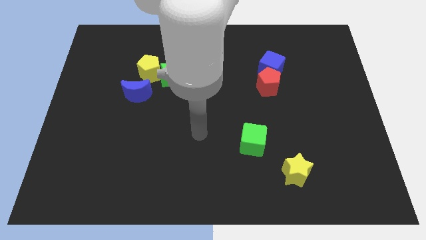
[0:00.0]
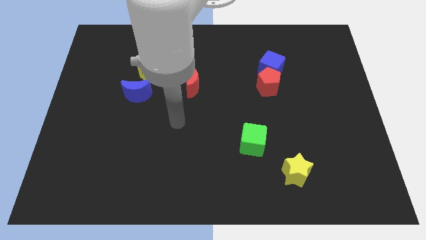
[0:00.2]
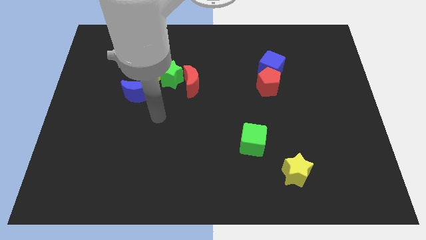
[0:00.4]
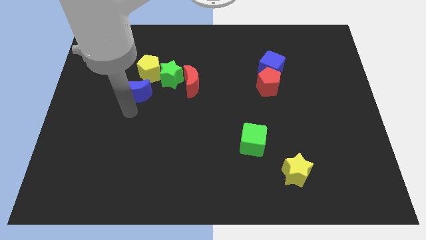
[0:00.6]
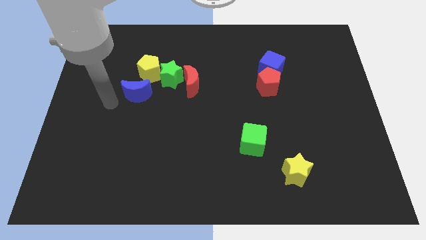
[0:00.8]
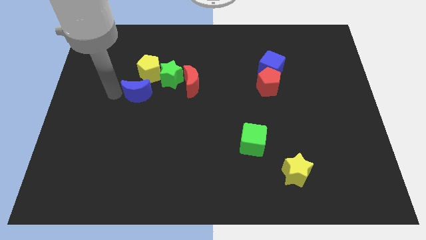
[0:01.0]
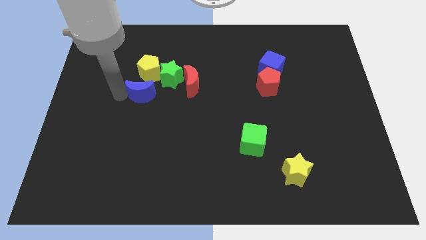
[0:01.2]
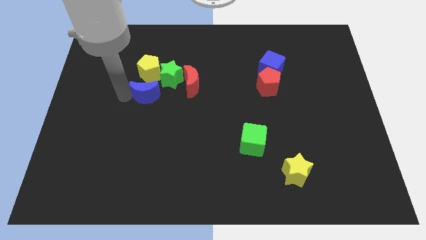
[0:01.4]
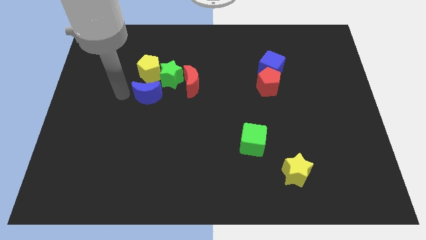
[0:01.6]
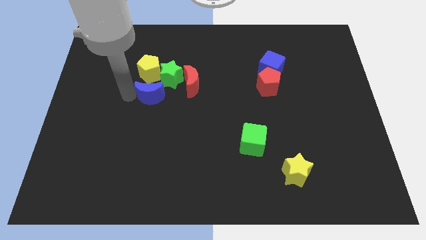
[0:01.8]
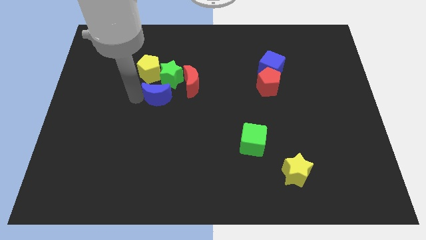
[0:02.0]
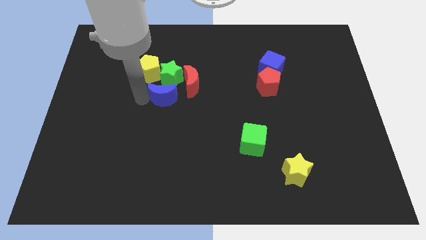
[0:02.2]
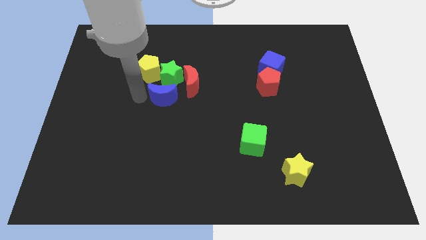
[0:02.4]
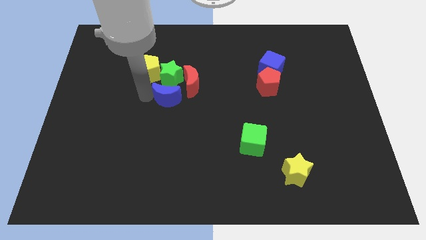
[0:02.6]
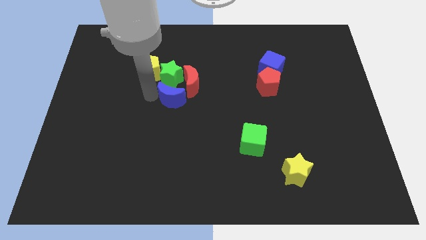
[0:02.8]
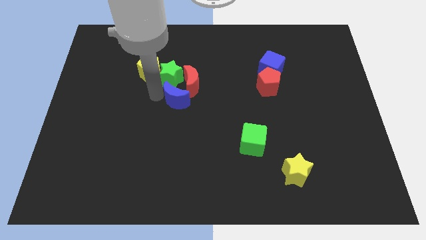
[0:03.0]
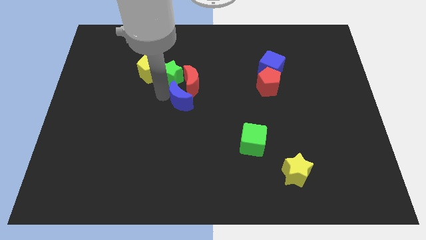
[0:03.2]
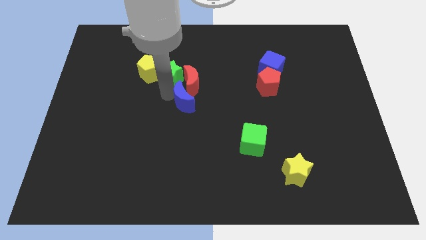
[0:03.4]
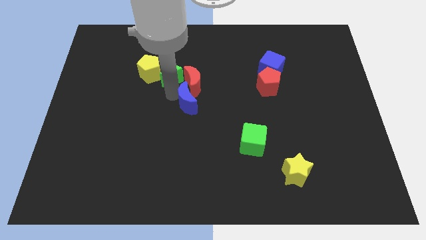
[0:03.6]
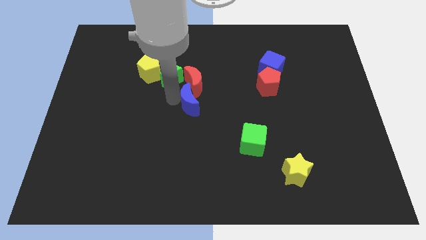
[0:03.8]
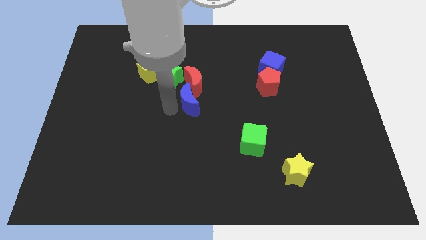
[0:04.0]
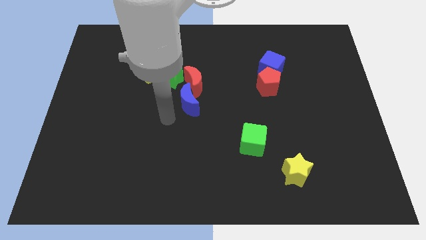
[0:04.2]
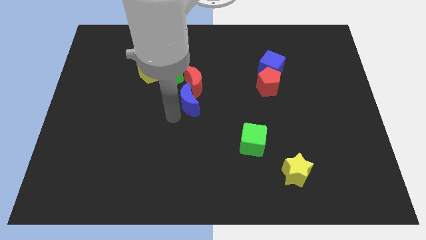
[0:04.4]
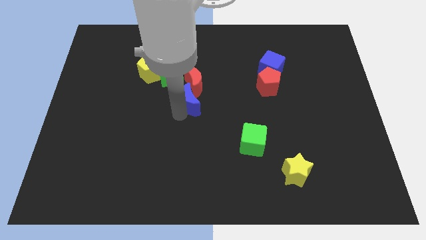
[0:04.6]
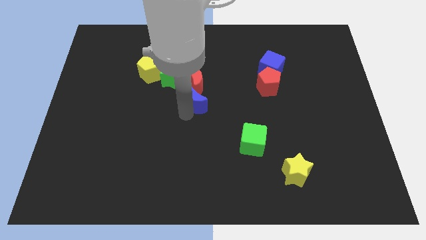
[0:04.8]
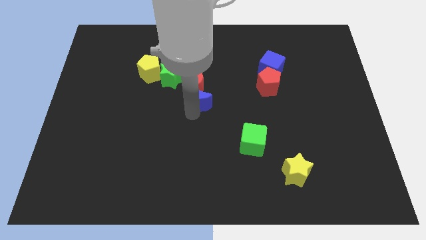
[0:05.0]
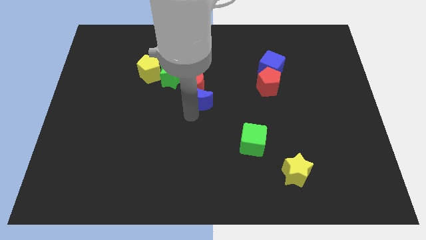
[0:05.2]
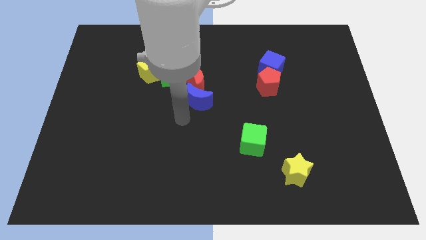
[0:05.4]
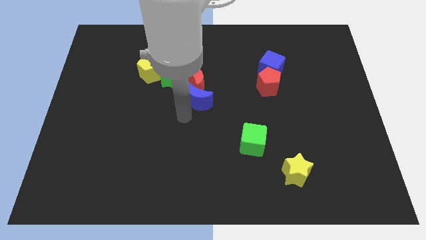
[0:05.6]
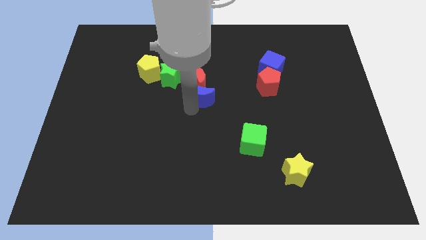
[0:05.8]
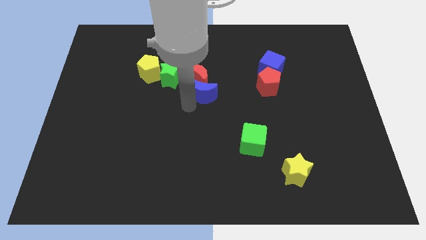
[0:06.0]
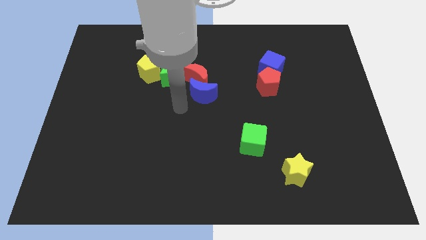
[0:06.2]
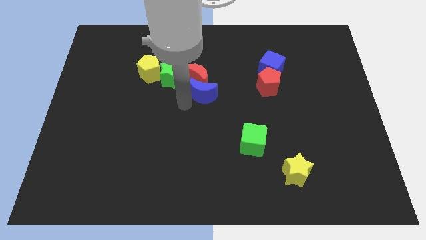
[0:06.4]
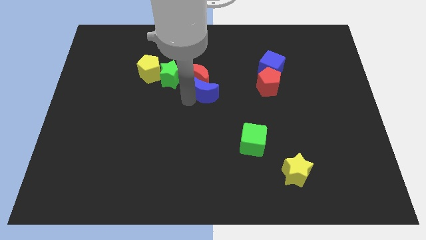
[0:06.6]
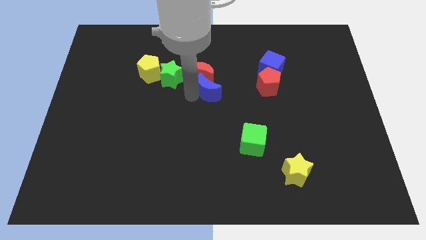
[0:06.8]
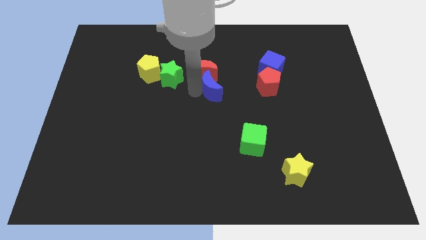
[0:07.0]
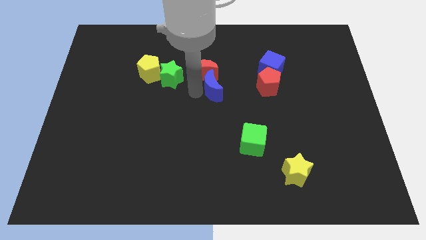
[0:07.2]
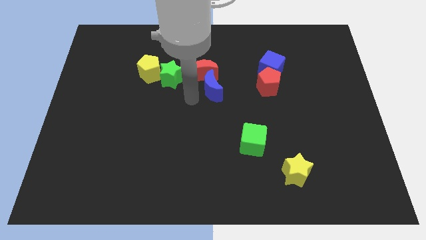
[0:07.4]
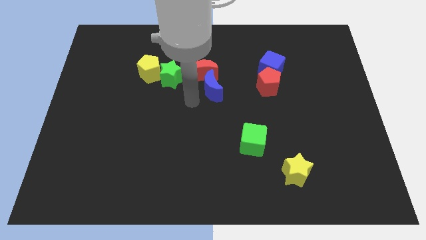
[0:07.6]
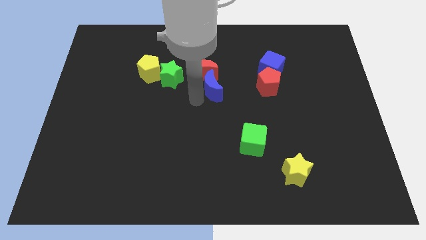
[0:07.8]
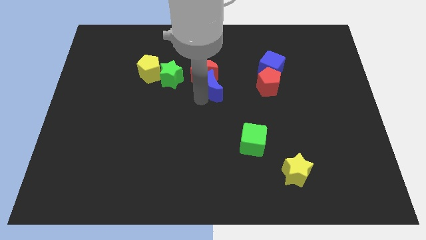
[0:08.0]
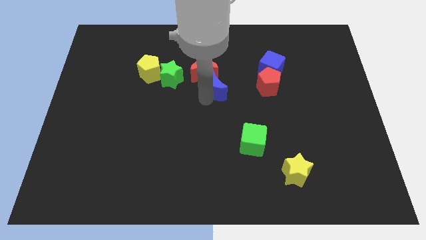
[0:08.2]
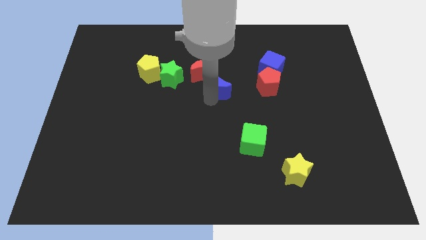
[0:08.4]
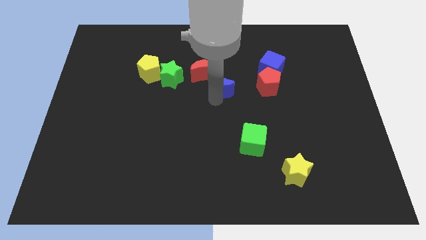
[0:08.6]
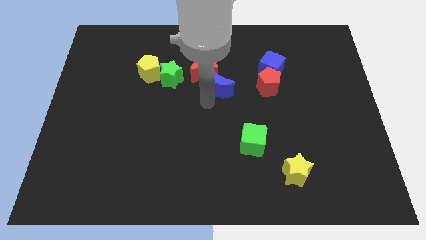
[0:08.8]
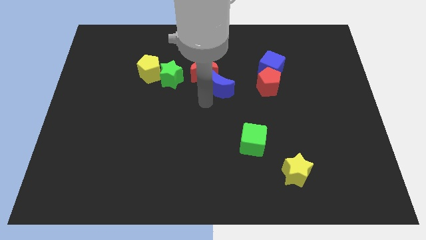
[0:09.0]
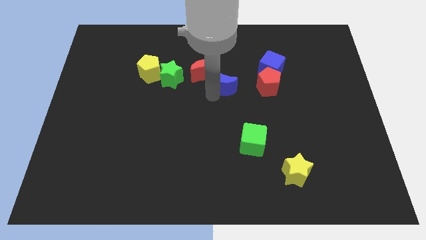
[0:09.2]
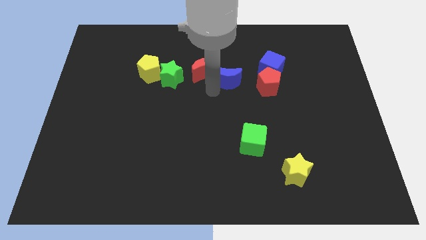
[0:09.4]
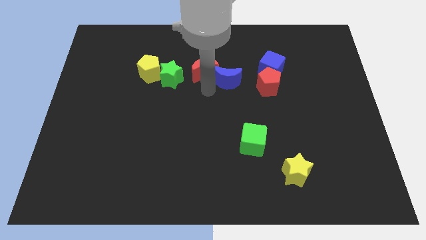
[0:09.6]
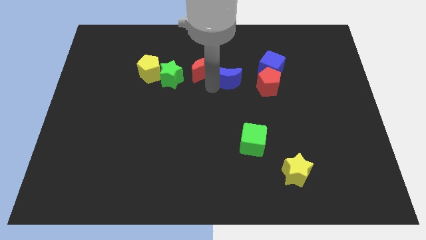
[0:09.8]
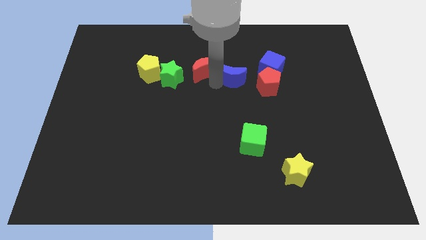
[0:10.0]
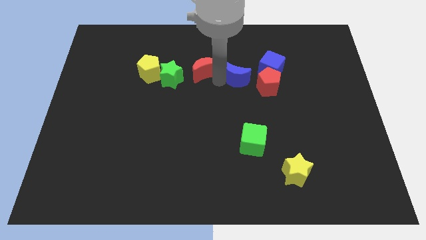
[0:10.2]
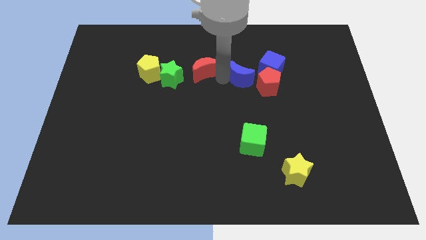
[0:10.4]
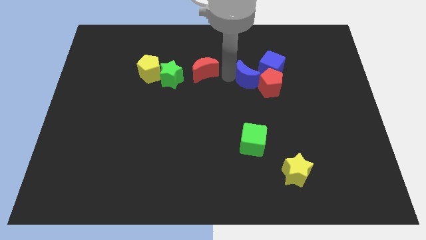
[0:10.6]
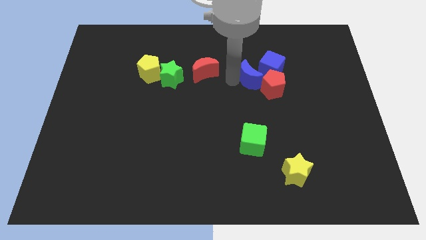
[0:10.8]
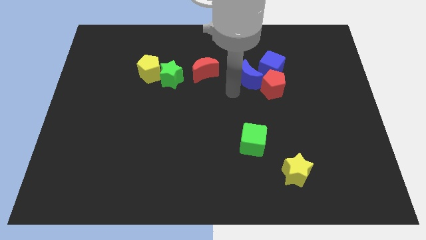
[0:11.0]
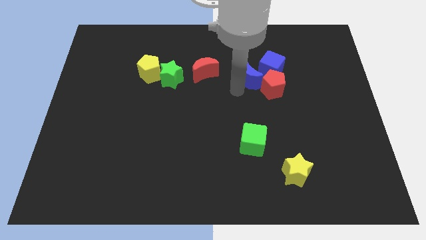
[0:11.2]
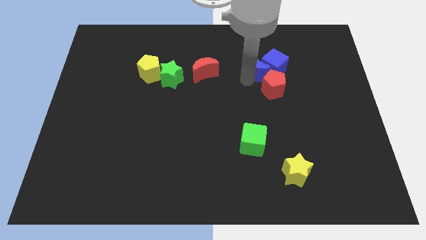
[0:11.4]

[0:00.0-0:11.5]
slide the blue moon to the top of the red pentagon

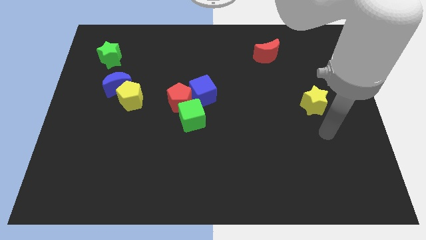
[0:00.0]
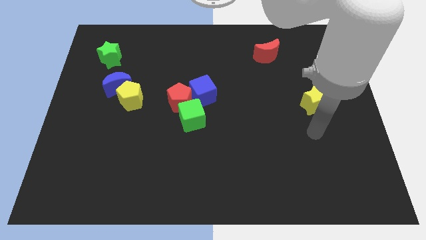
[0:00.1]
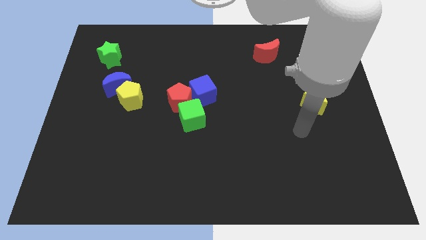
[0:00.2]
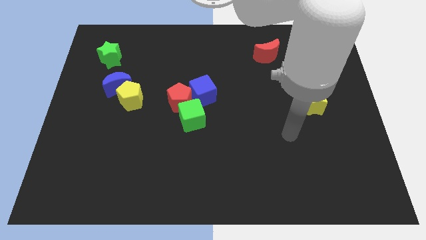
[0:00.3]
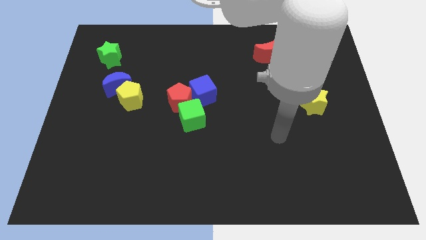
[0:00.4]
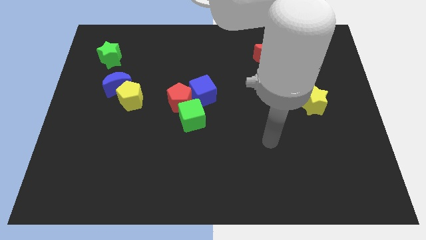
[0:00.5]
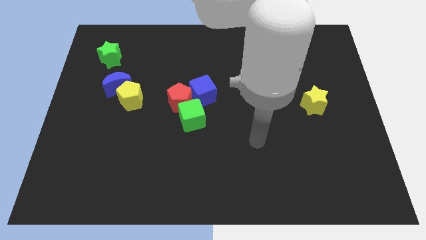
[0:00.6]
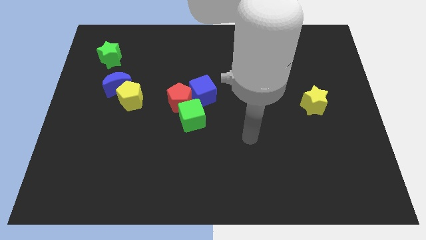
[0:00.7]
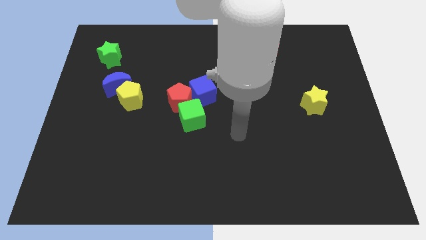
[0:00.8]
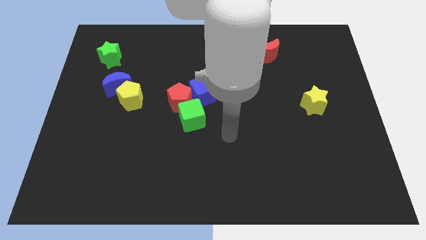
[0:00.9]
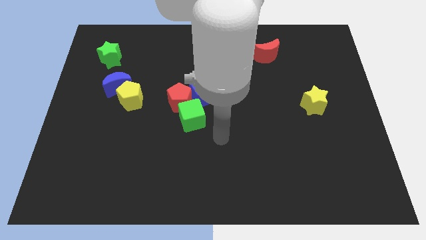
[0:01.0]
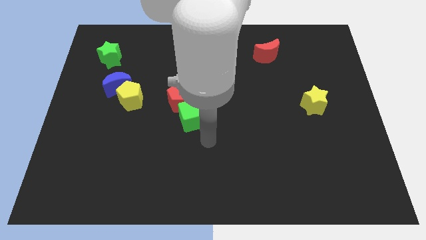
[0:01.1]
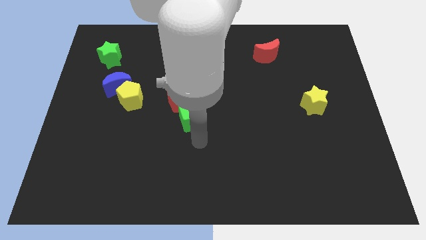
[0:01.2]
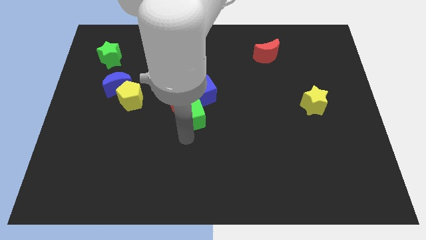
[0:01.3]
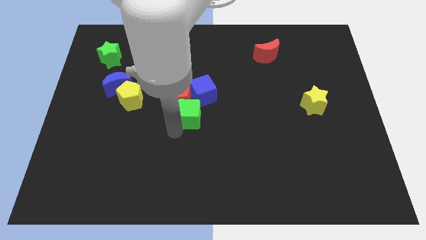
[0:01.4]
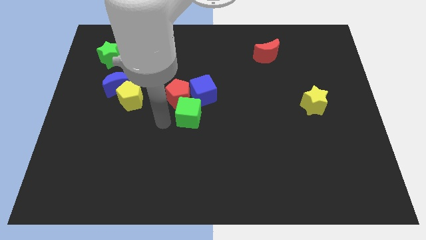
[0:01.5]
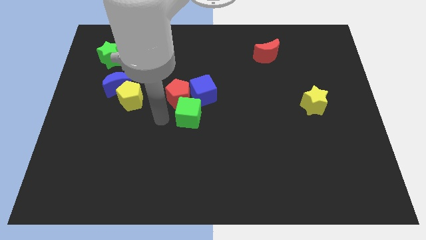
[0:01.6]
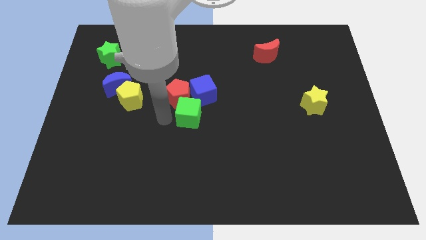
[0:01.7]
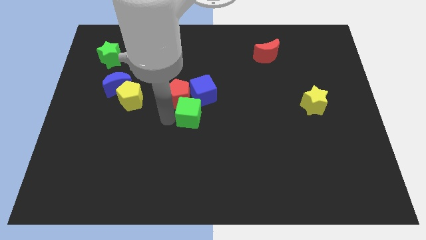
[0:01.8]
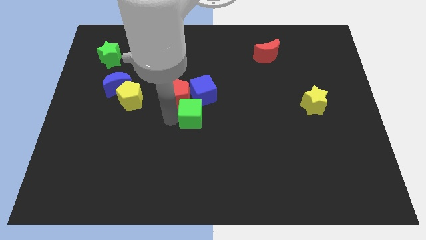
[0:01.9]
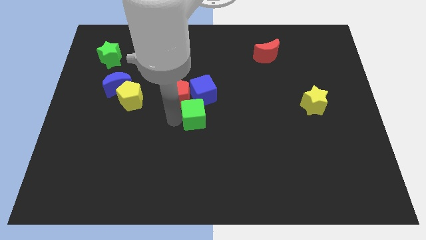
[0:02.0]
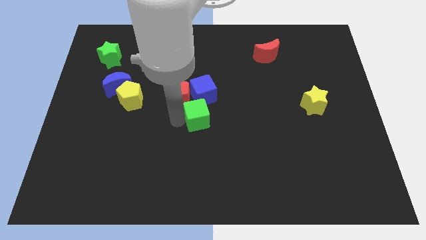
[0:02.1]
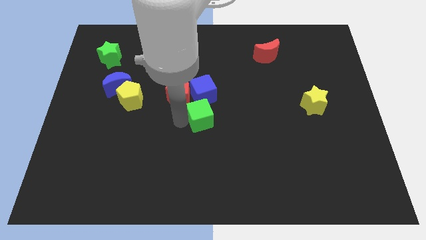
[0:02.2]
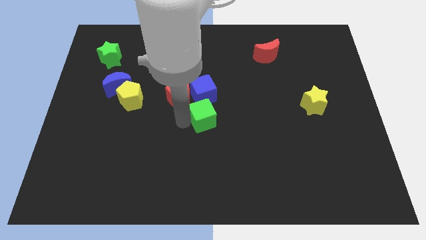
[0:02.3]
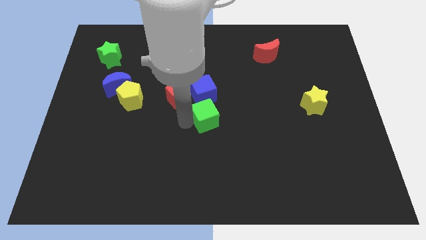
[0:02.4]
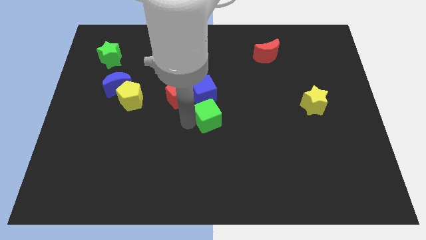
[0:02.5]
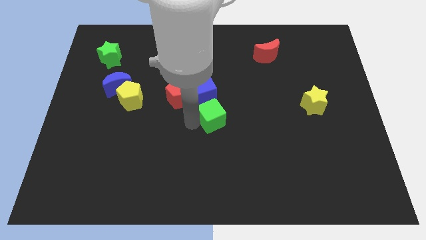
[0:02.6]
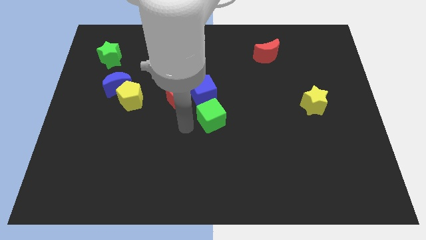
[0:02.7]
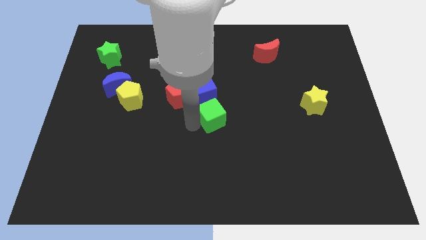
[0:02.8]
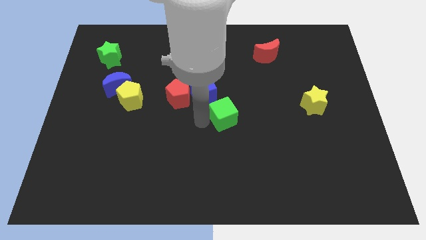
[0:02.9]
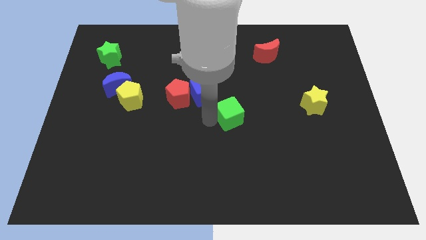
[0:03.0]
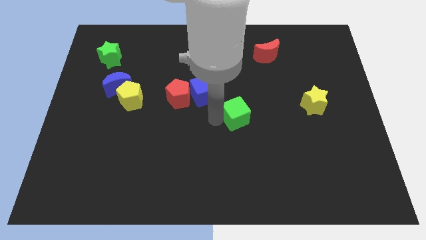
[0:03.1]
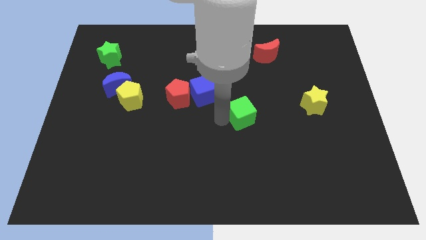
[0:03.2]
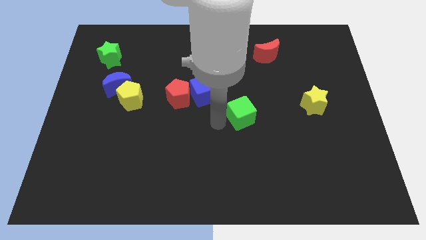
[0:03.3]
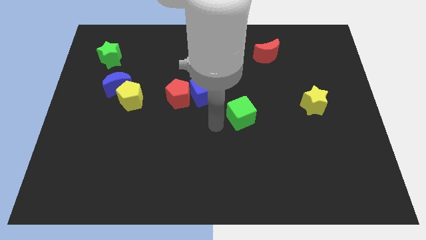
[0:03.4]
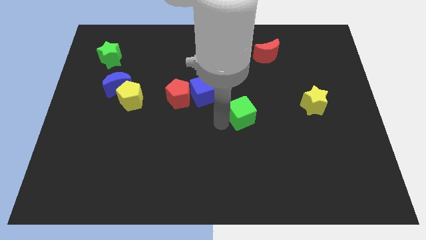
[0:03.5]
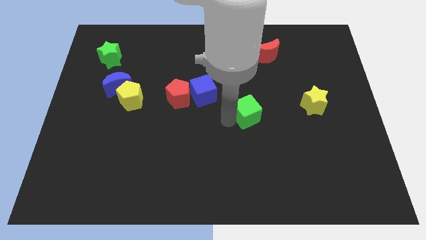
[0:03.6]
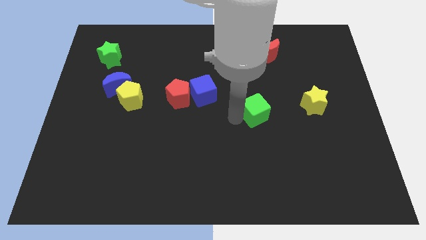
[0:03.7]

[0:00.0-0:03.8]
slide the green cube to the left of the yellow star
